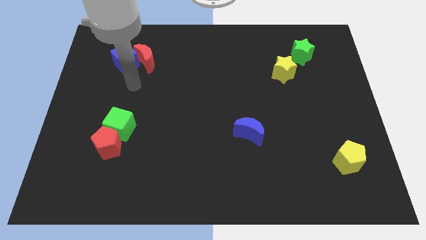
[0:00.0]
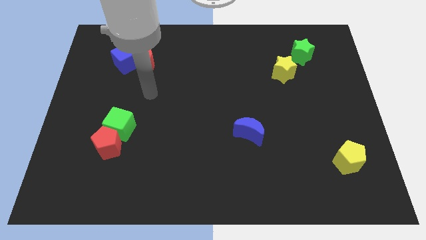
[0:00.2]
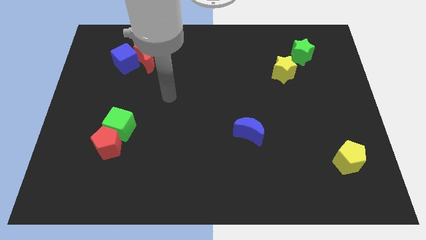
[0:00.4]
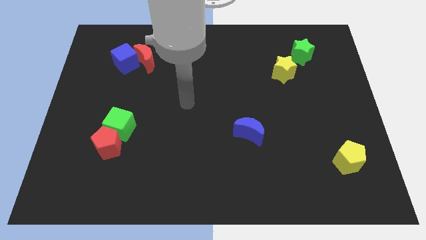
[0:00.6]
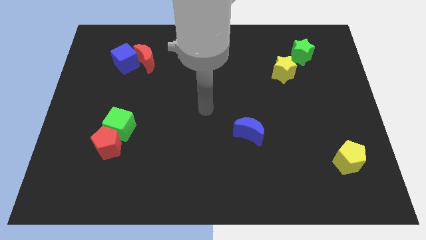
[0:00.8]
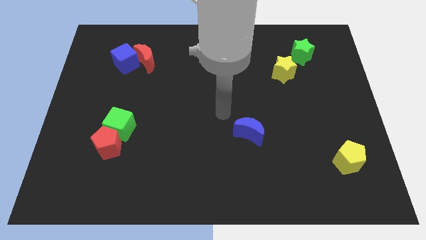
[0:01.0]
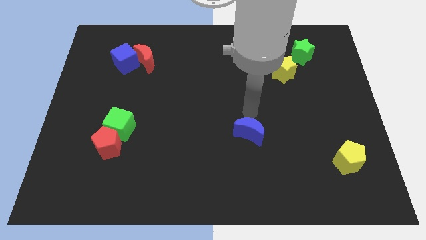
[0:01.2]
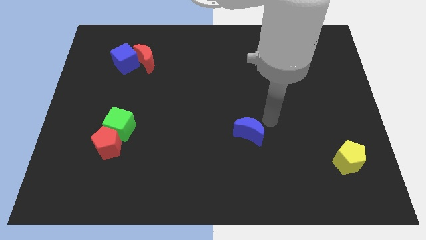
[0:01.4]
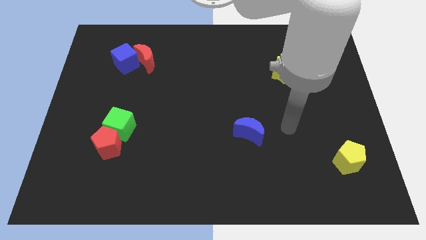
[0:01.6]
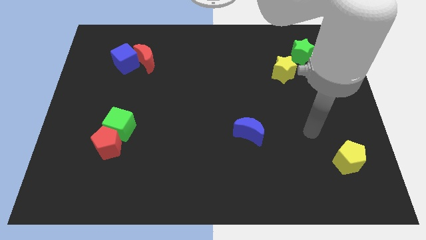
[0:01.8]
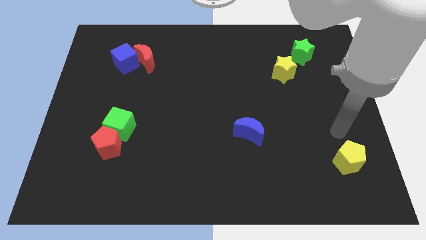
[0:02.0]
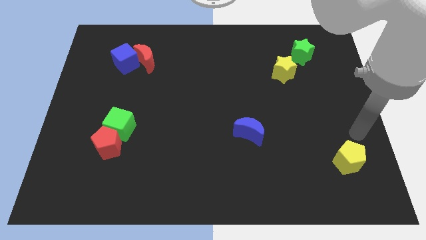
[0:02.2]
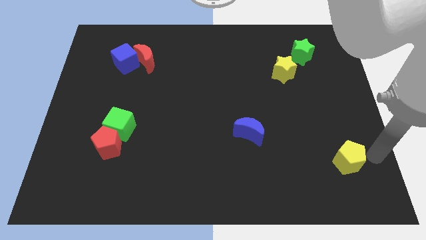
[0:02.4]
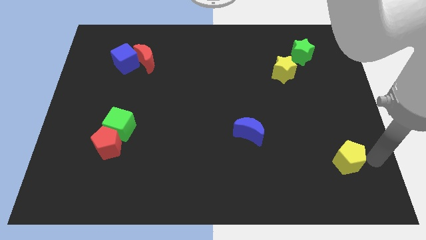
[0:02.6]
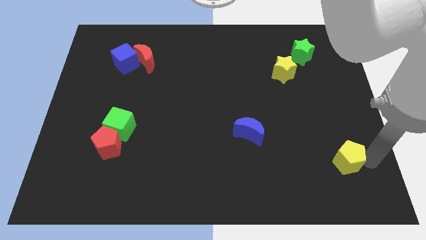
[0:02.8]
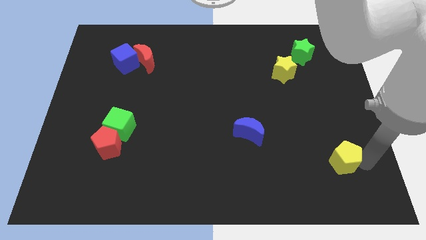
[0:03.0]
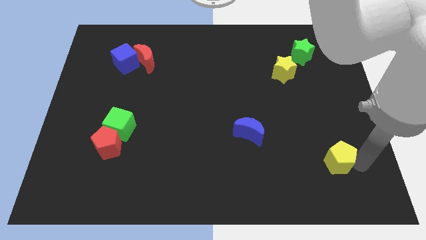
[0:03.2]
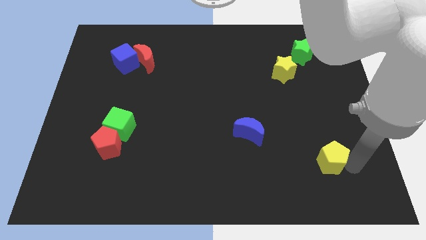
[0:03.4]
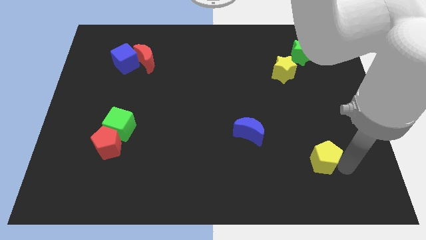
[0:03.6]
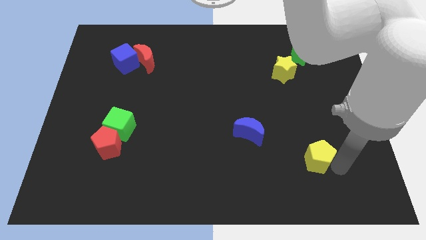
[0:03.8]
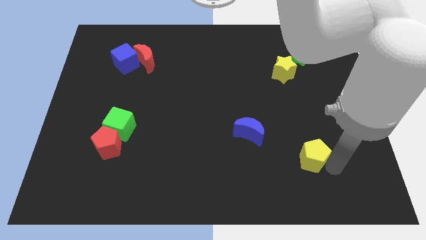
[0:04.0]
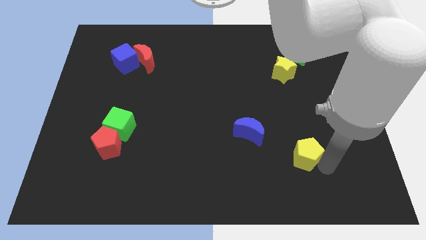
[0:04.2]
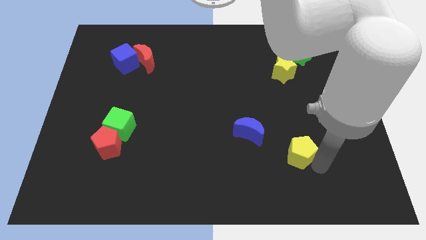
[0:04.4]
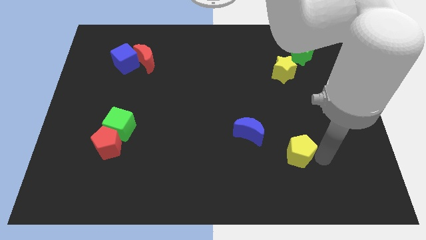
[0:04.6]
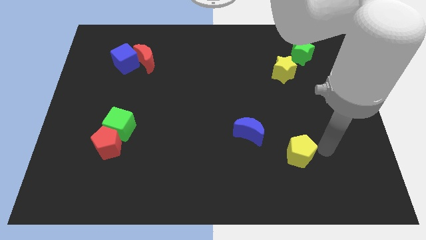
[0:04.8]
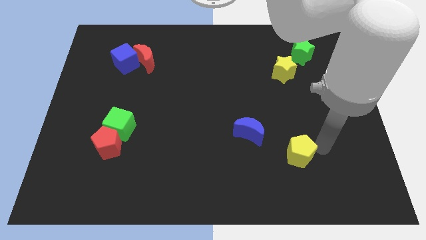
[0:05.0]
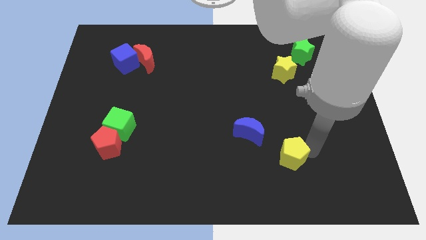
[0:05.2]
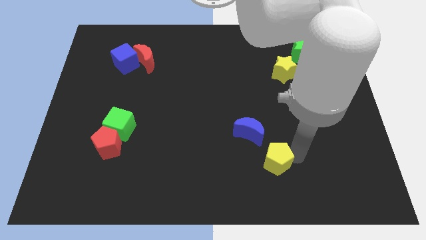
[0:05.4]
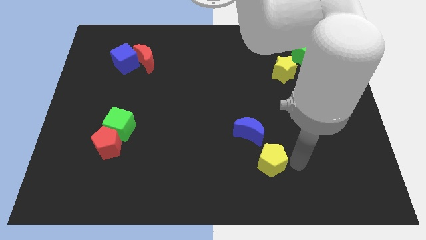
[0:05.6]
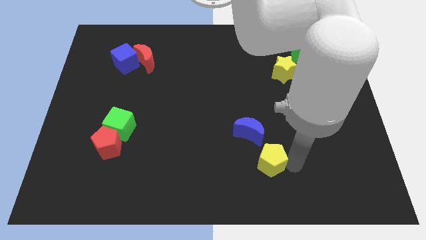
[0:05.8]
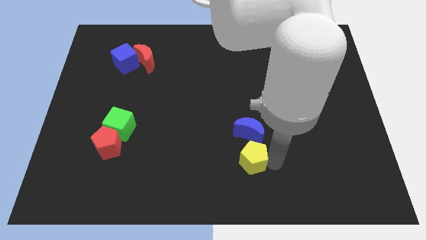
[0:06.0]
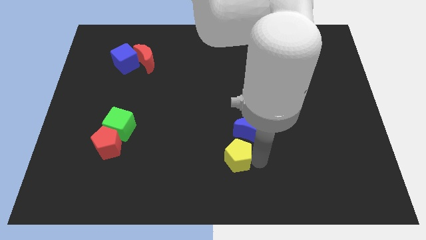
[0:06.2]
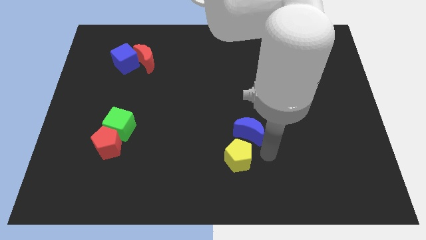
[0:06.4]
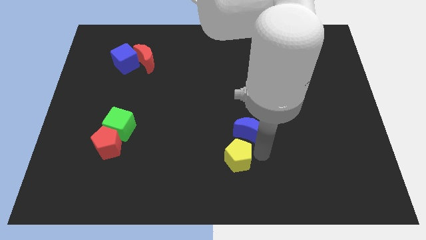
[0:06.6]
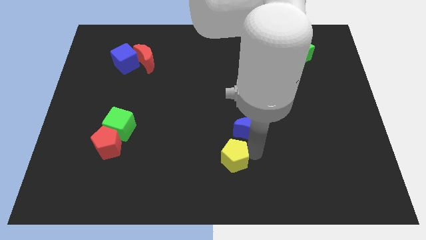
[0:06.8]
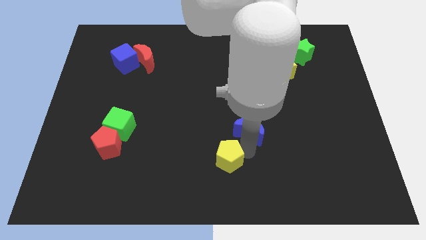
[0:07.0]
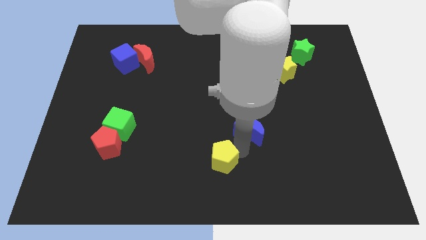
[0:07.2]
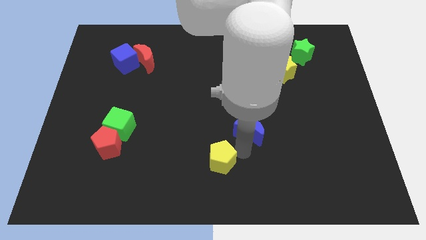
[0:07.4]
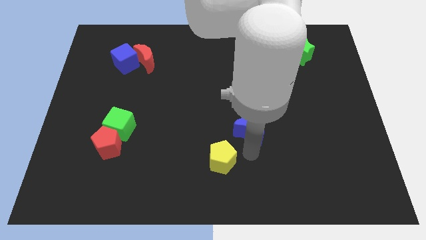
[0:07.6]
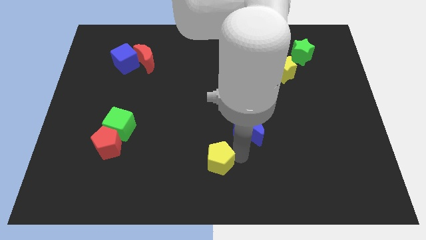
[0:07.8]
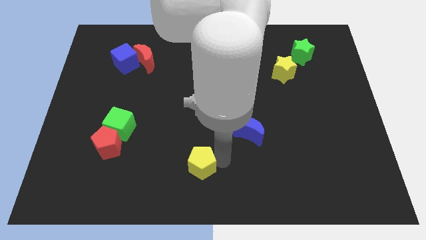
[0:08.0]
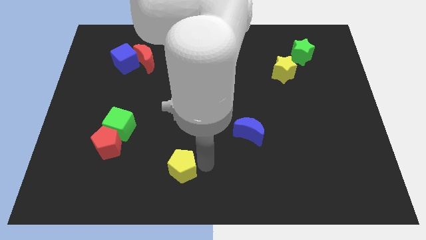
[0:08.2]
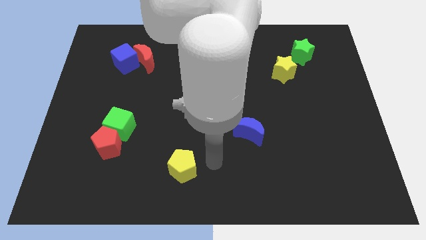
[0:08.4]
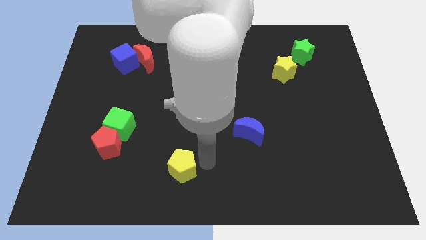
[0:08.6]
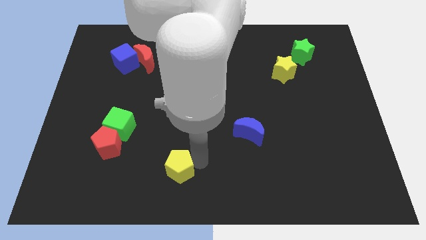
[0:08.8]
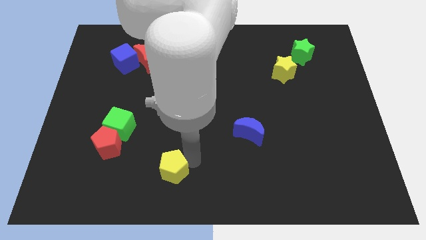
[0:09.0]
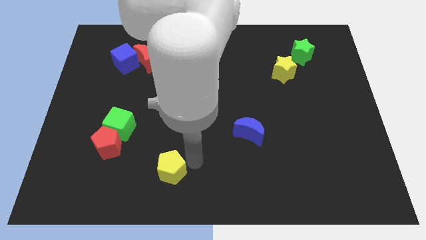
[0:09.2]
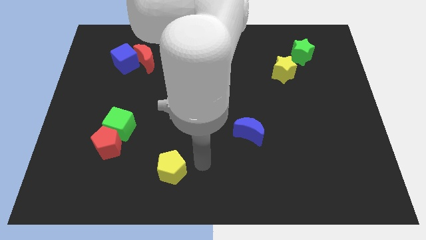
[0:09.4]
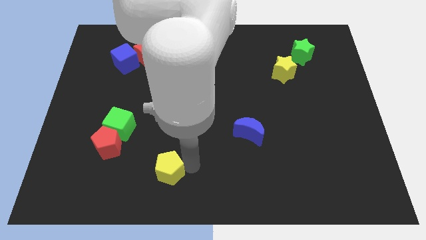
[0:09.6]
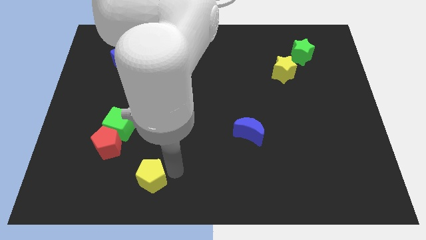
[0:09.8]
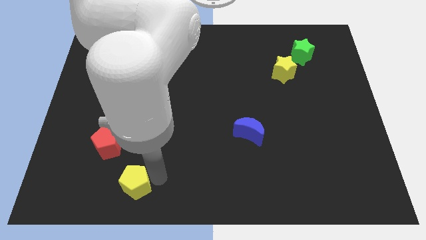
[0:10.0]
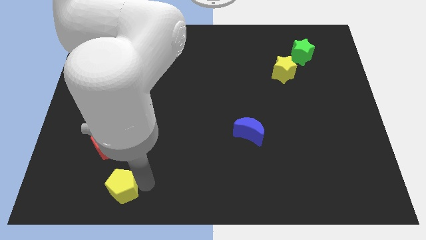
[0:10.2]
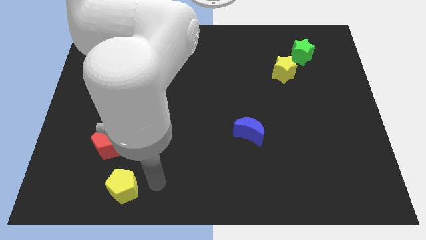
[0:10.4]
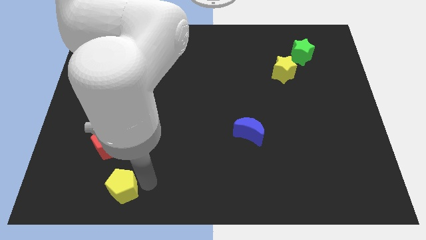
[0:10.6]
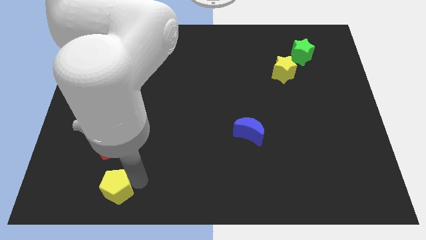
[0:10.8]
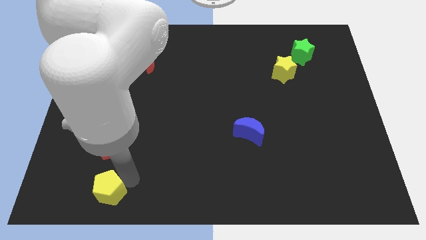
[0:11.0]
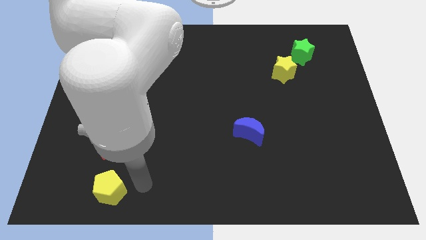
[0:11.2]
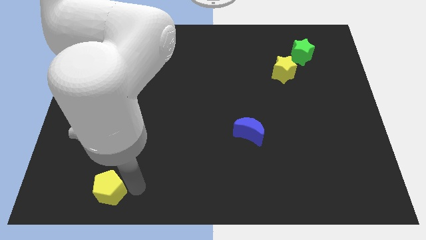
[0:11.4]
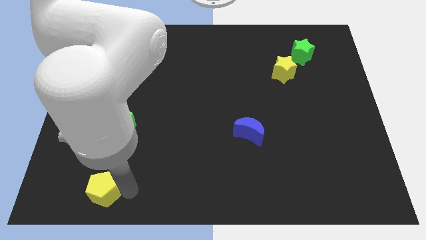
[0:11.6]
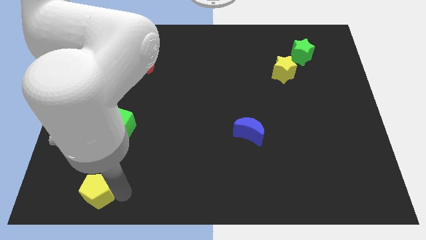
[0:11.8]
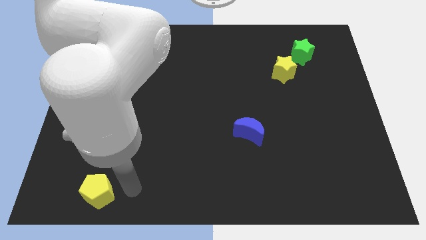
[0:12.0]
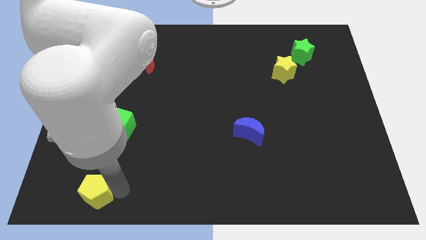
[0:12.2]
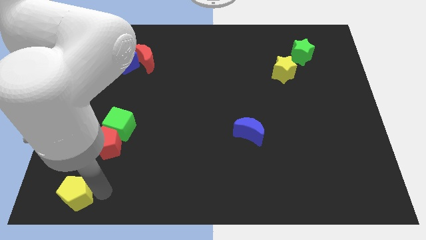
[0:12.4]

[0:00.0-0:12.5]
move the yellow pentagon to the lower left corner
